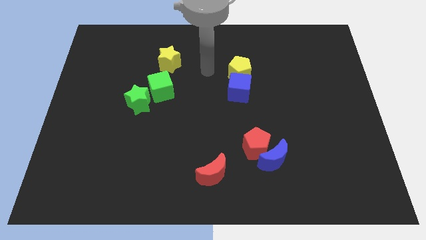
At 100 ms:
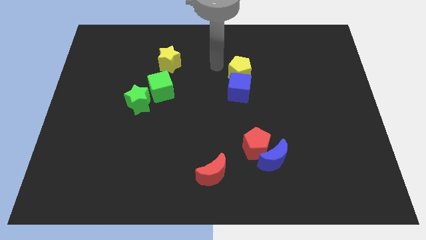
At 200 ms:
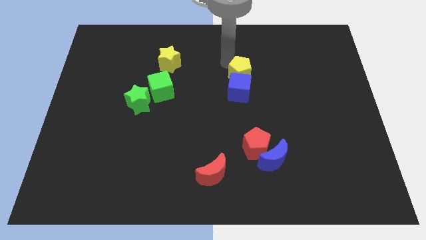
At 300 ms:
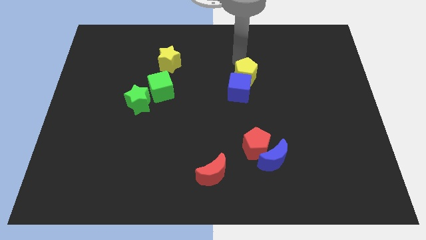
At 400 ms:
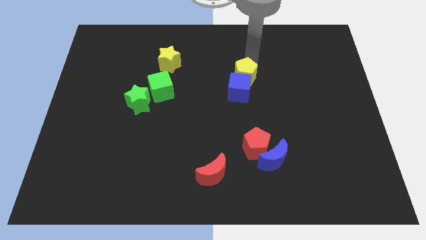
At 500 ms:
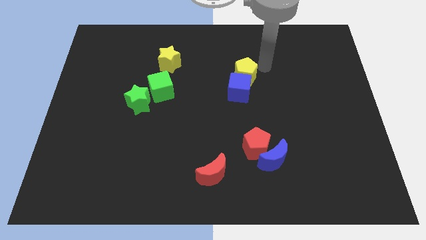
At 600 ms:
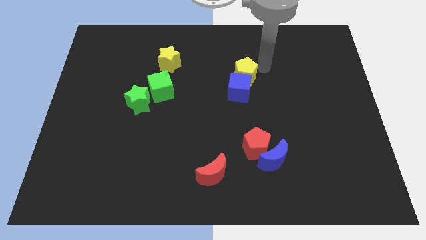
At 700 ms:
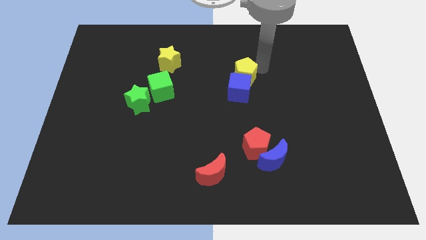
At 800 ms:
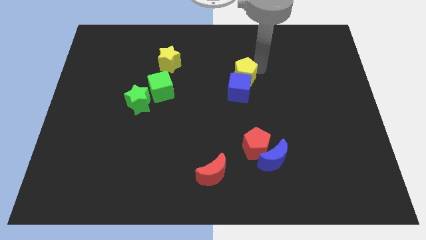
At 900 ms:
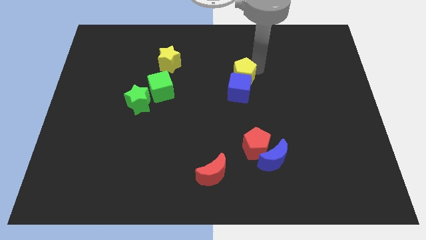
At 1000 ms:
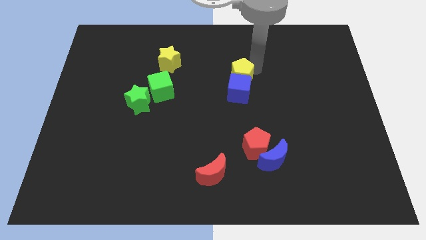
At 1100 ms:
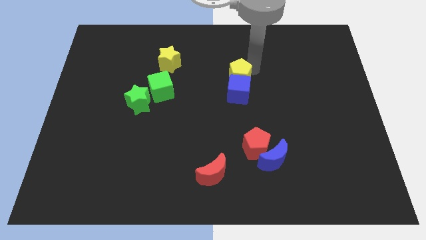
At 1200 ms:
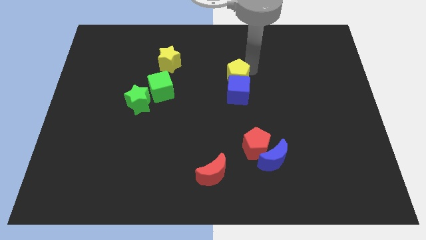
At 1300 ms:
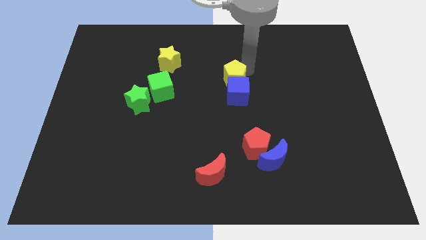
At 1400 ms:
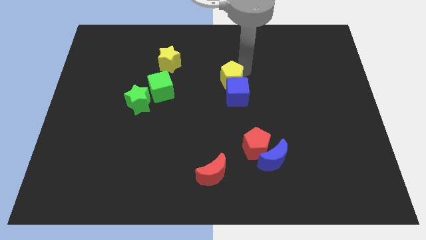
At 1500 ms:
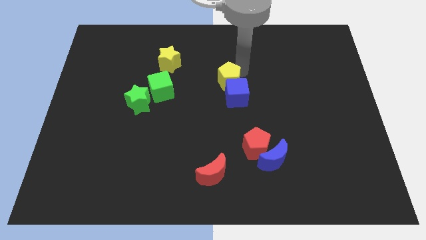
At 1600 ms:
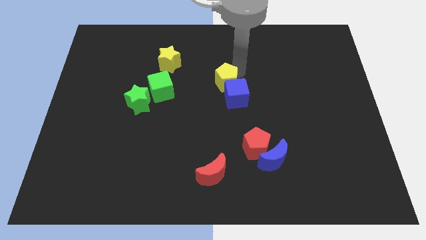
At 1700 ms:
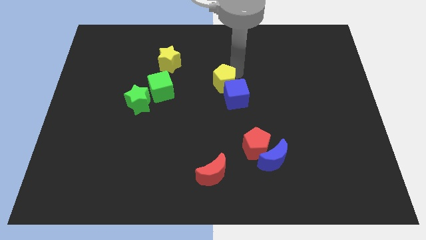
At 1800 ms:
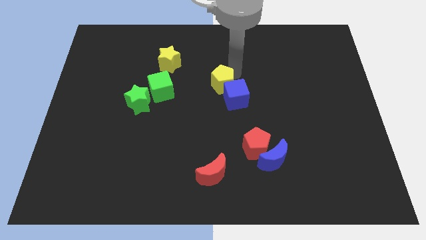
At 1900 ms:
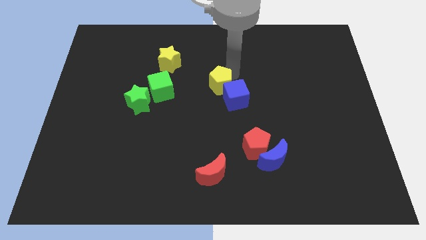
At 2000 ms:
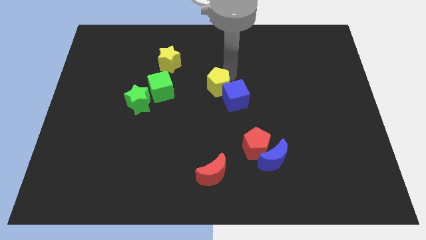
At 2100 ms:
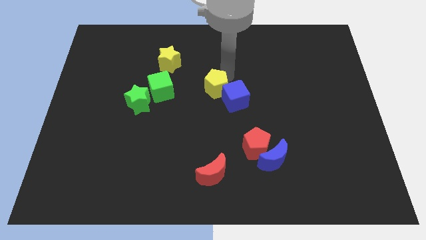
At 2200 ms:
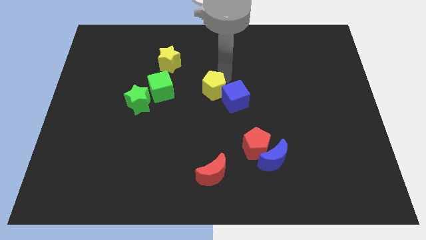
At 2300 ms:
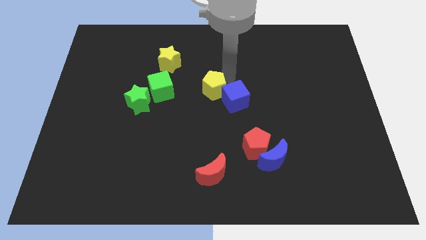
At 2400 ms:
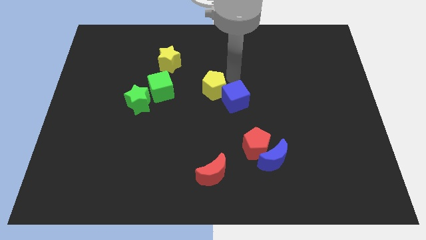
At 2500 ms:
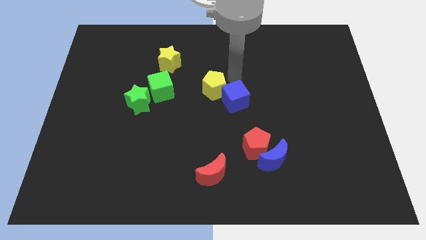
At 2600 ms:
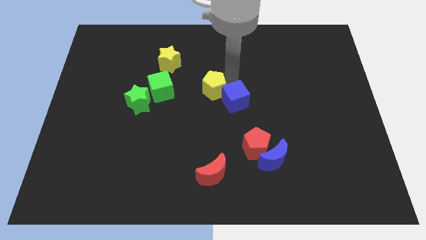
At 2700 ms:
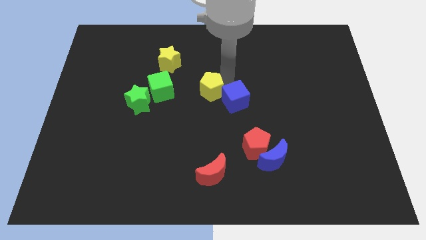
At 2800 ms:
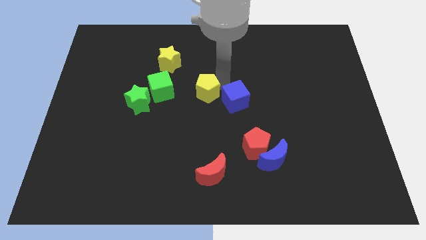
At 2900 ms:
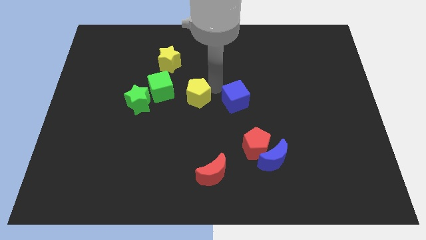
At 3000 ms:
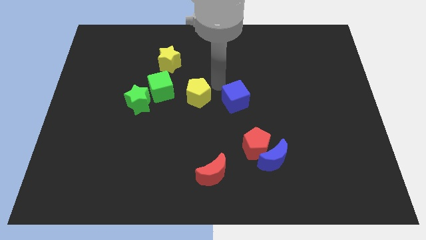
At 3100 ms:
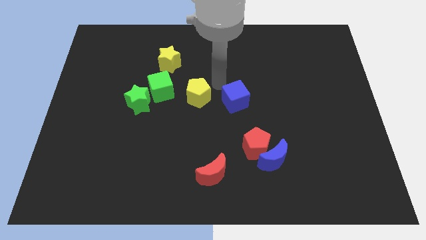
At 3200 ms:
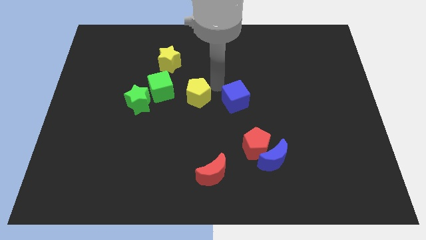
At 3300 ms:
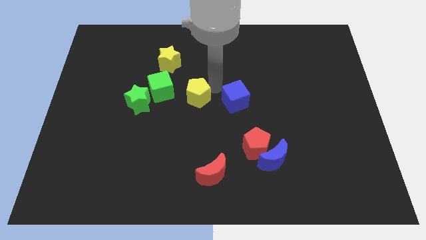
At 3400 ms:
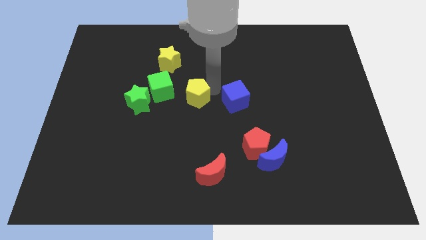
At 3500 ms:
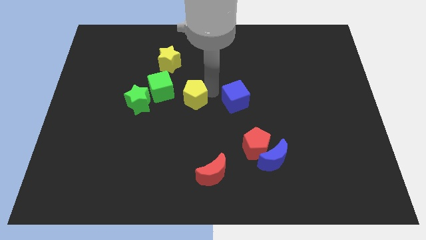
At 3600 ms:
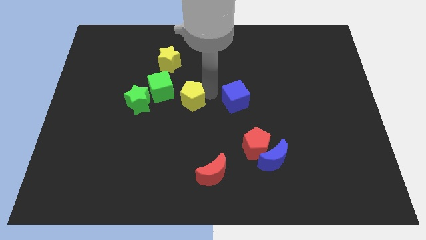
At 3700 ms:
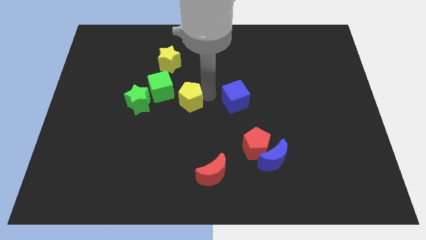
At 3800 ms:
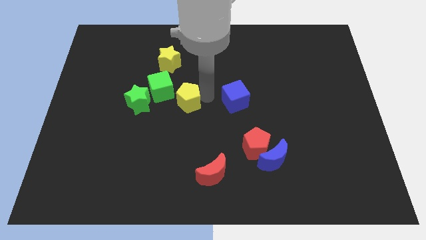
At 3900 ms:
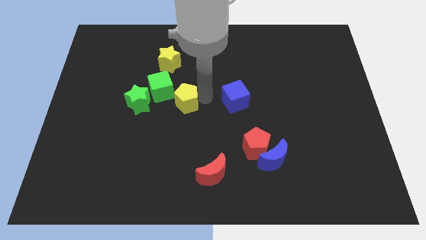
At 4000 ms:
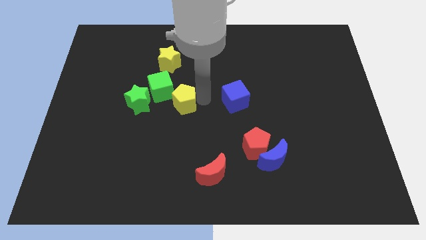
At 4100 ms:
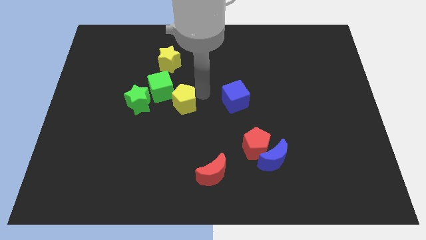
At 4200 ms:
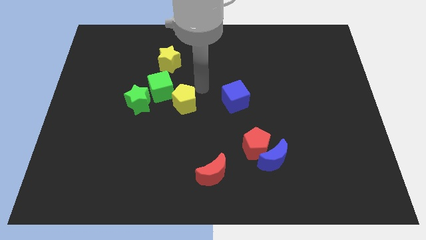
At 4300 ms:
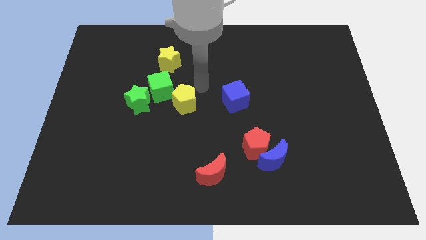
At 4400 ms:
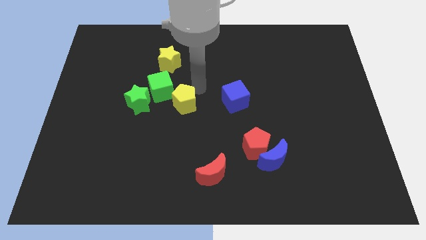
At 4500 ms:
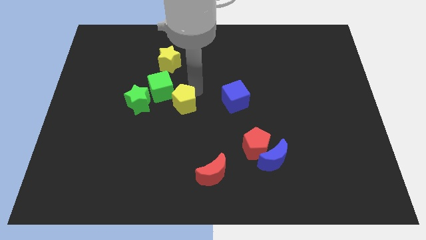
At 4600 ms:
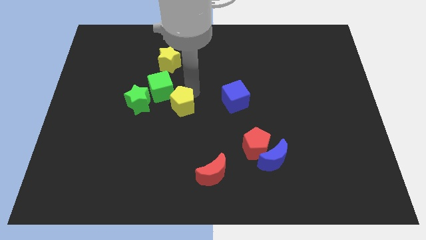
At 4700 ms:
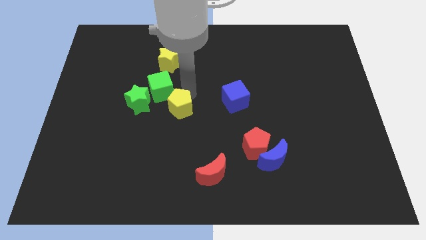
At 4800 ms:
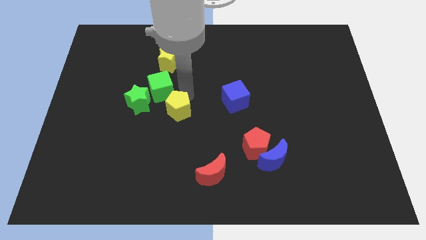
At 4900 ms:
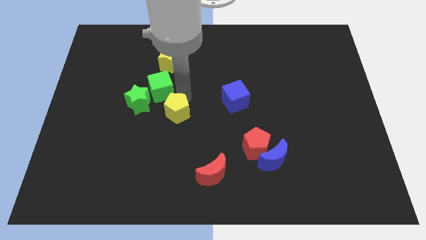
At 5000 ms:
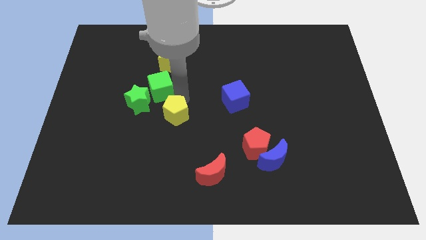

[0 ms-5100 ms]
move the yellow pentagon down and left

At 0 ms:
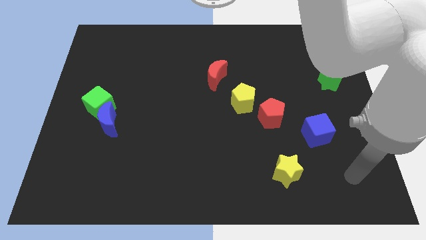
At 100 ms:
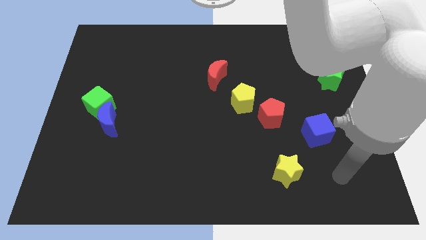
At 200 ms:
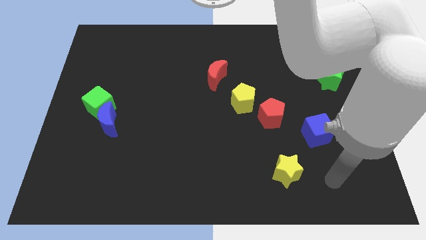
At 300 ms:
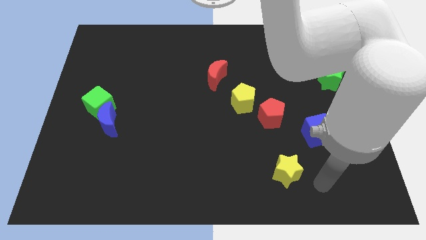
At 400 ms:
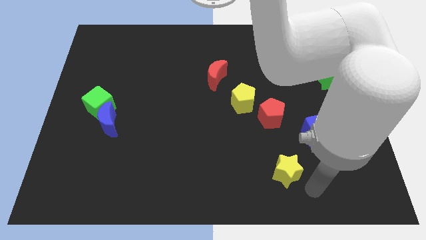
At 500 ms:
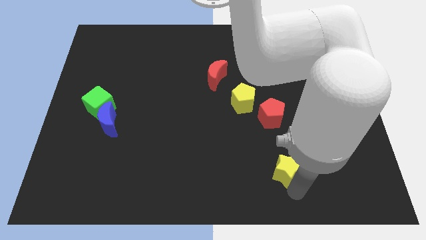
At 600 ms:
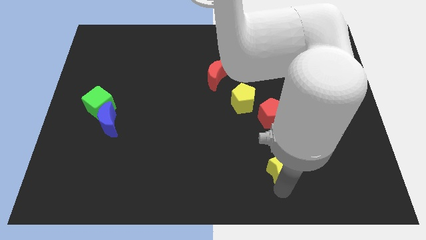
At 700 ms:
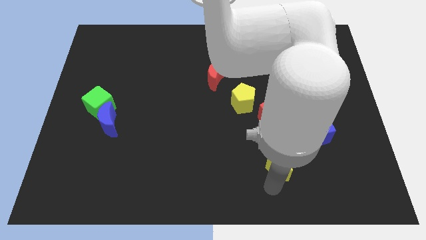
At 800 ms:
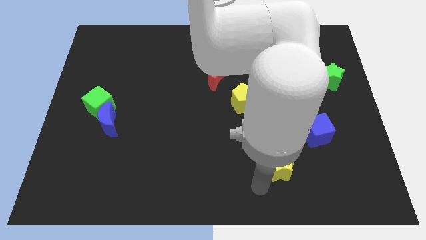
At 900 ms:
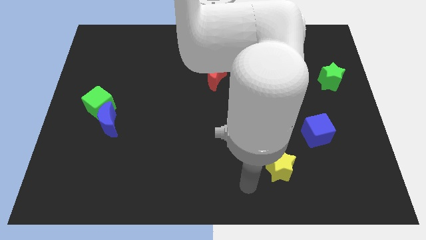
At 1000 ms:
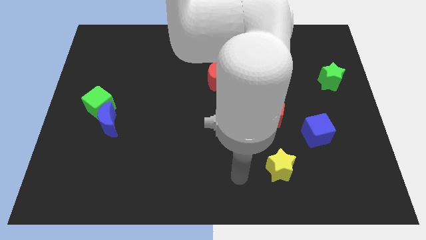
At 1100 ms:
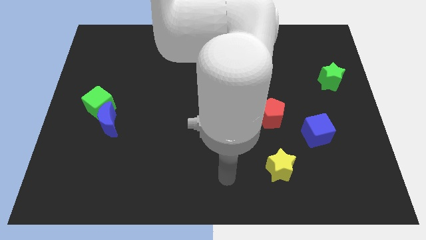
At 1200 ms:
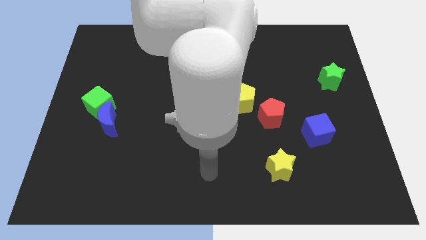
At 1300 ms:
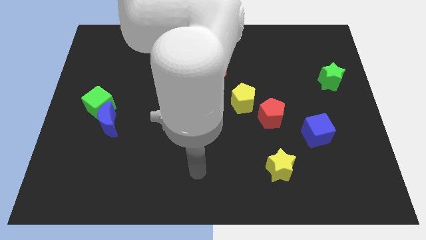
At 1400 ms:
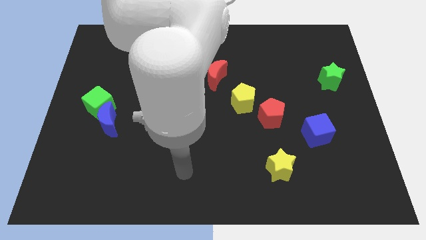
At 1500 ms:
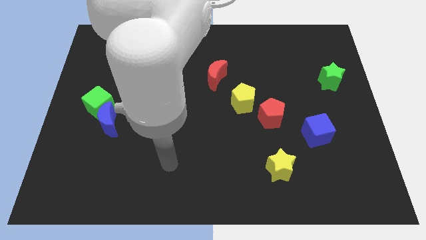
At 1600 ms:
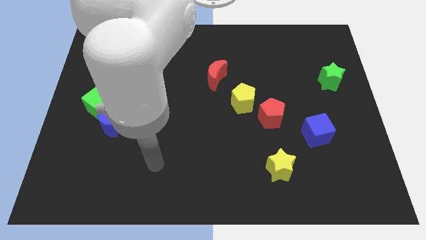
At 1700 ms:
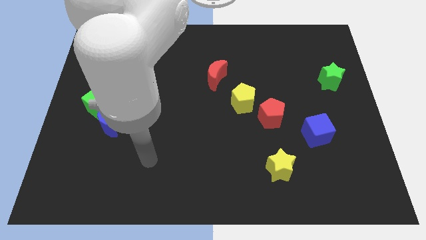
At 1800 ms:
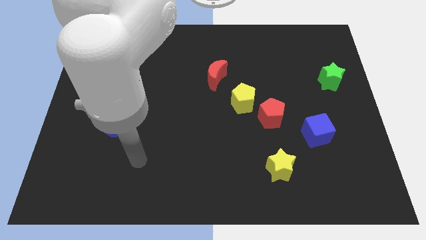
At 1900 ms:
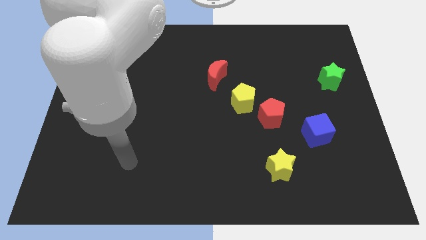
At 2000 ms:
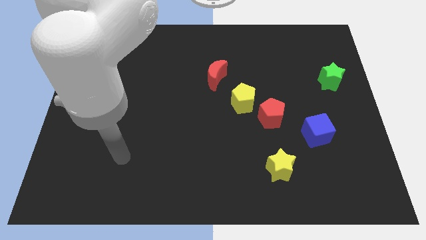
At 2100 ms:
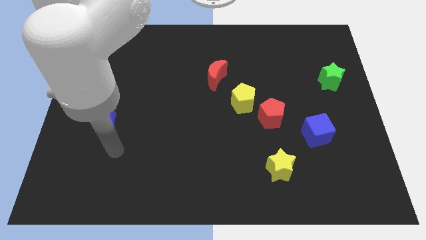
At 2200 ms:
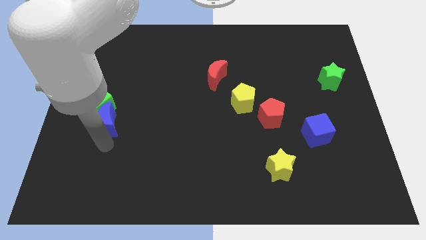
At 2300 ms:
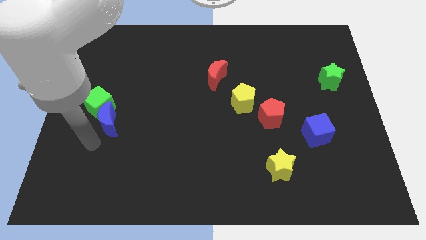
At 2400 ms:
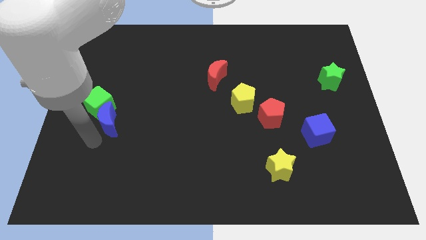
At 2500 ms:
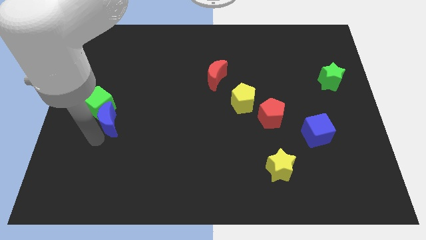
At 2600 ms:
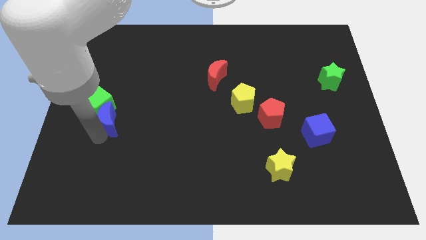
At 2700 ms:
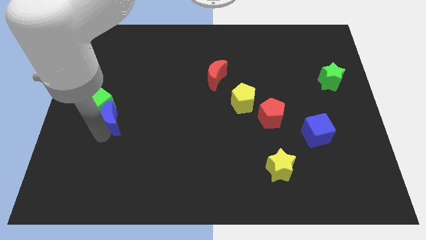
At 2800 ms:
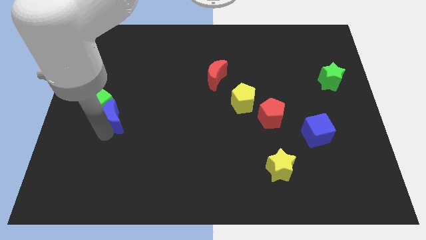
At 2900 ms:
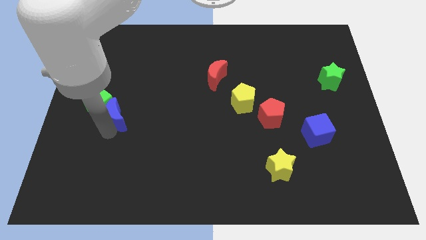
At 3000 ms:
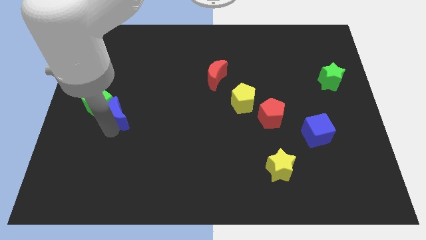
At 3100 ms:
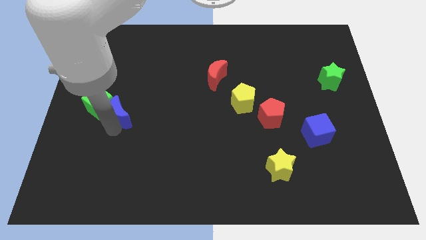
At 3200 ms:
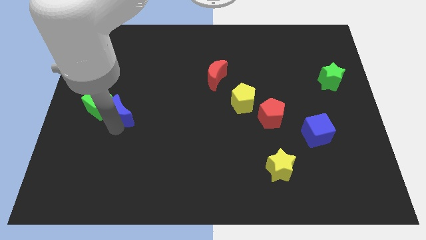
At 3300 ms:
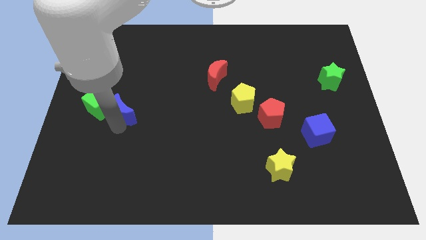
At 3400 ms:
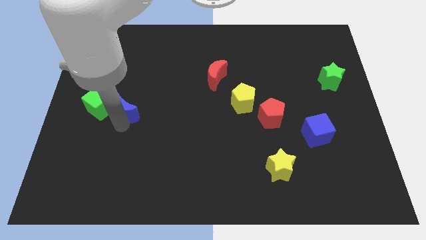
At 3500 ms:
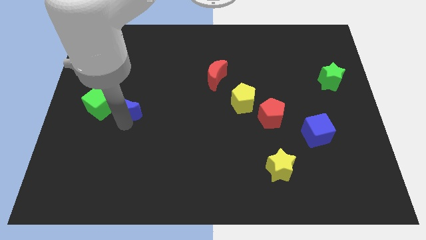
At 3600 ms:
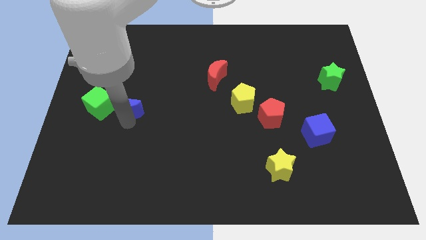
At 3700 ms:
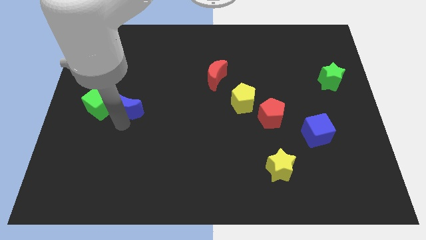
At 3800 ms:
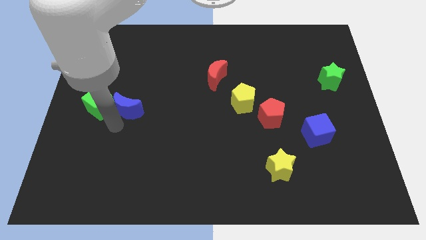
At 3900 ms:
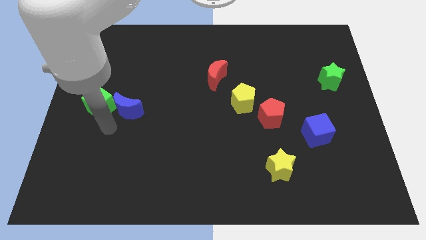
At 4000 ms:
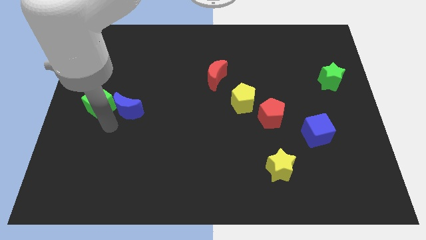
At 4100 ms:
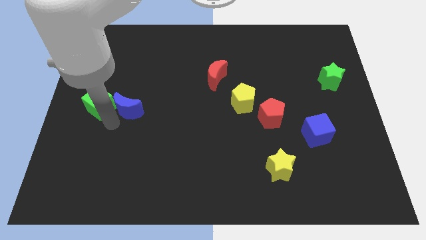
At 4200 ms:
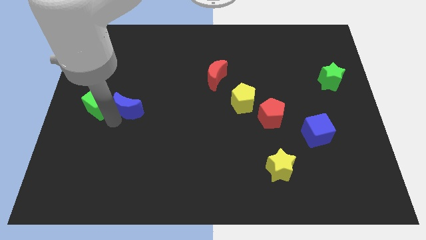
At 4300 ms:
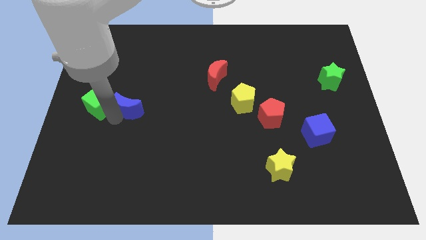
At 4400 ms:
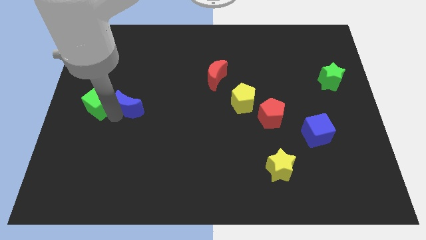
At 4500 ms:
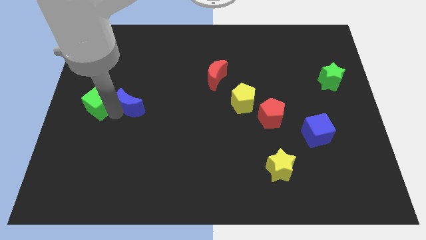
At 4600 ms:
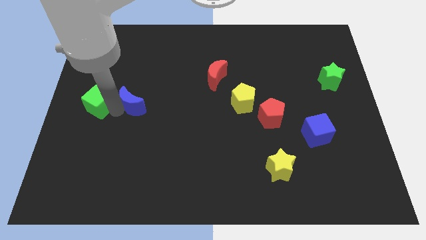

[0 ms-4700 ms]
move the blue moon a little diagonally upwards and right
